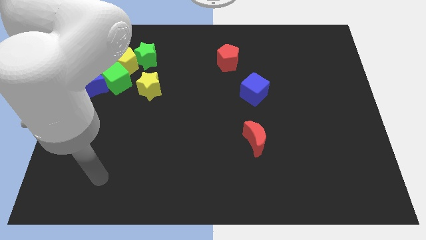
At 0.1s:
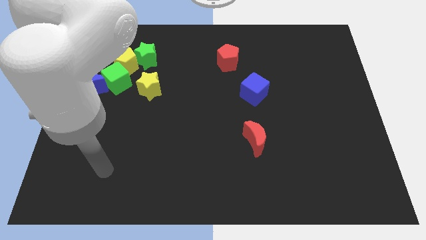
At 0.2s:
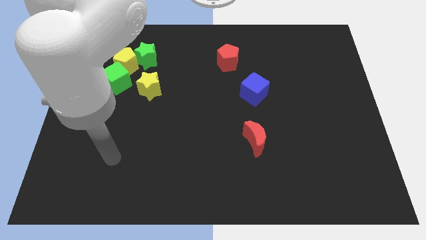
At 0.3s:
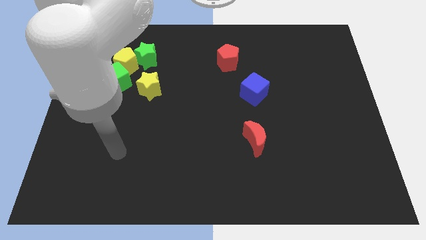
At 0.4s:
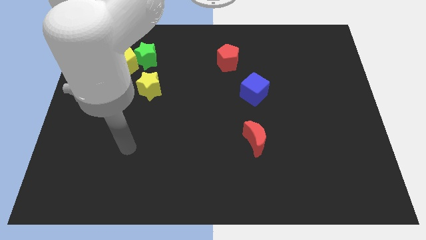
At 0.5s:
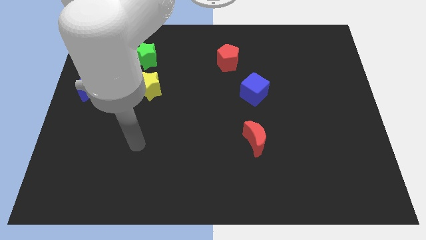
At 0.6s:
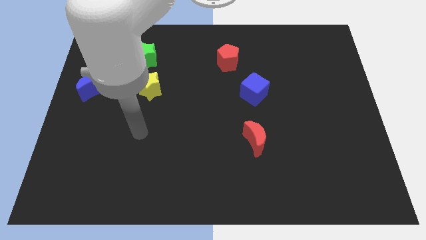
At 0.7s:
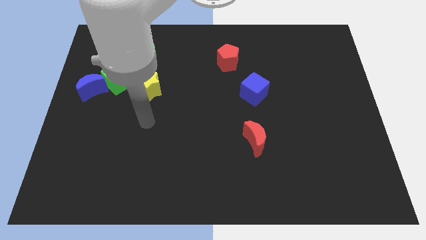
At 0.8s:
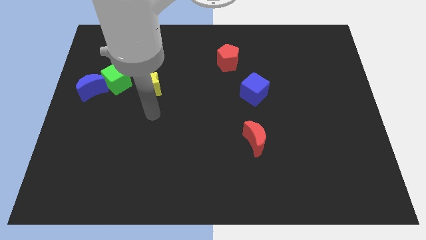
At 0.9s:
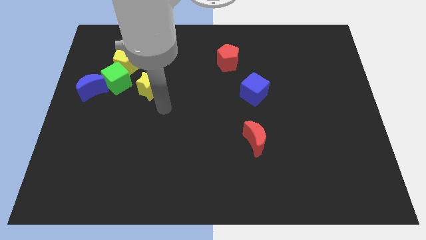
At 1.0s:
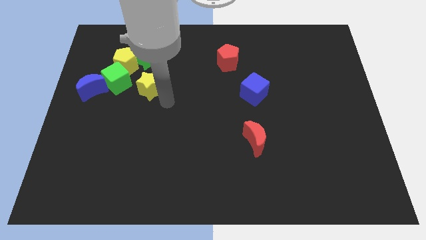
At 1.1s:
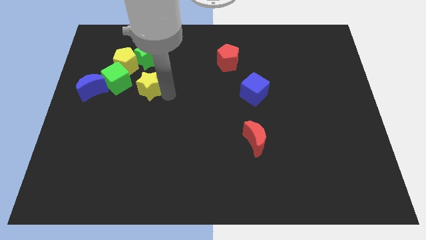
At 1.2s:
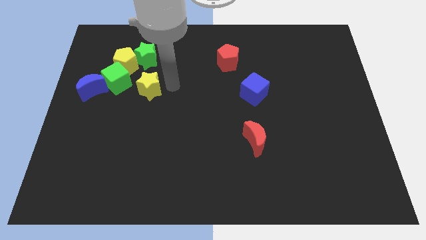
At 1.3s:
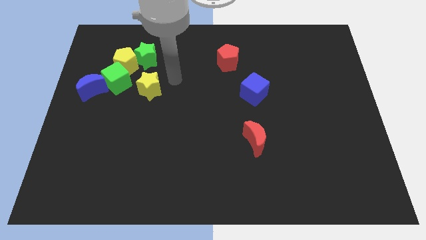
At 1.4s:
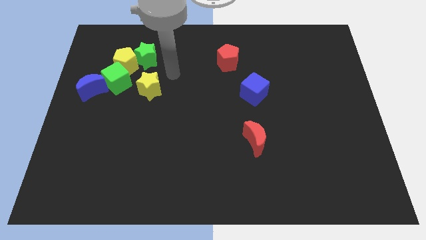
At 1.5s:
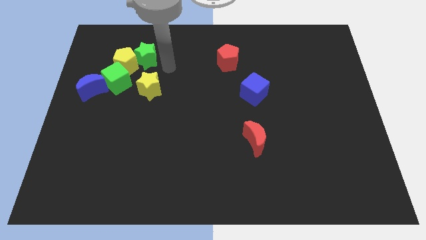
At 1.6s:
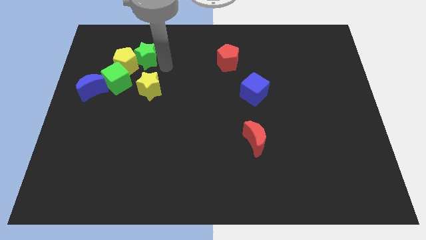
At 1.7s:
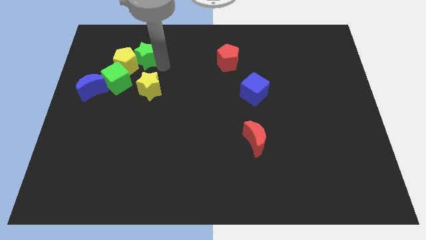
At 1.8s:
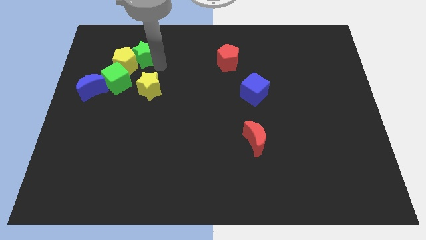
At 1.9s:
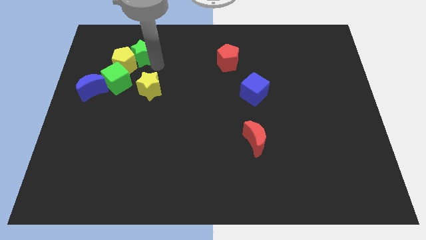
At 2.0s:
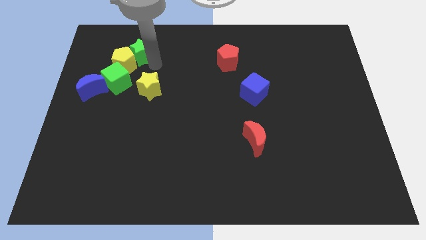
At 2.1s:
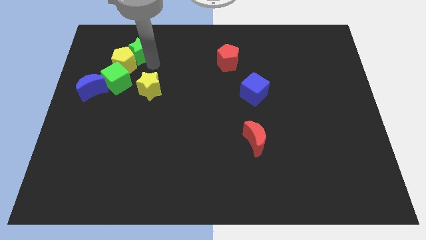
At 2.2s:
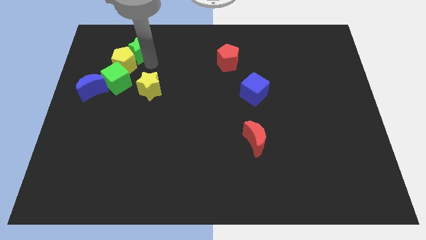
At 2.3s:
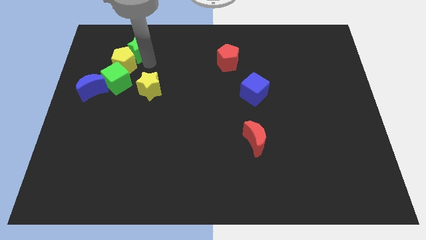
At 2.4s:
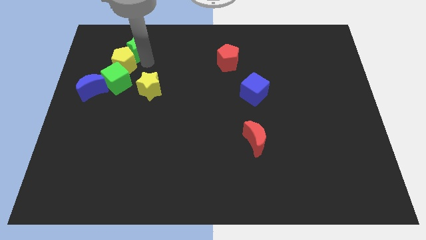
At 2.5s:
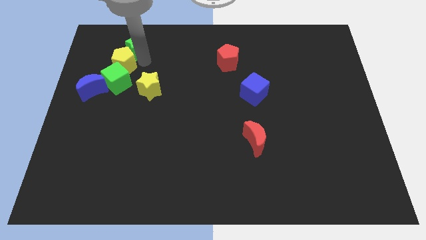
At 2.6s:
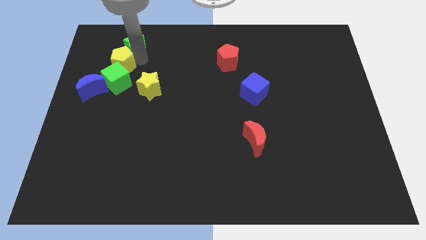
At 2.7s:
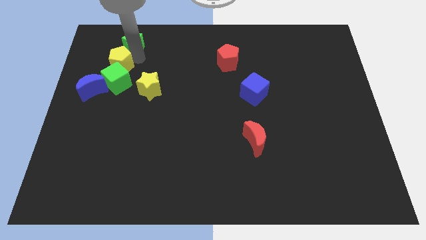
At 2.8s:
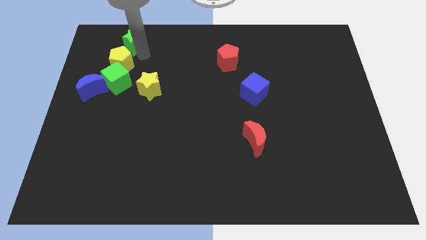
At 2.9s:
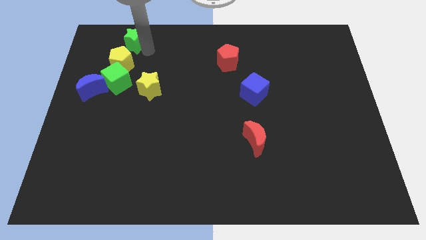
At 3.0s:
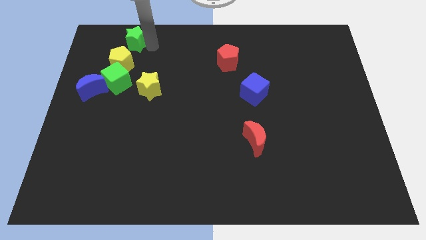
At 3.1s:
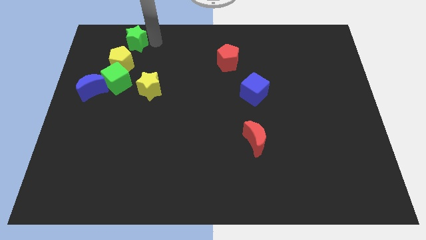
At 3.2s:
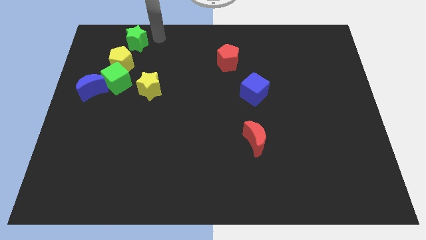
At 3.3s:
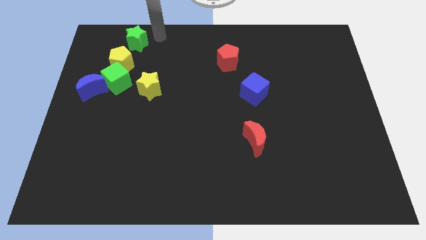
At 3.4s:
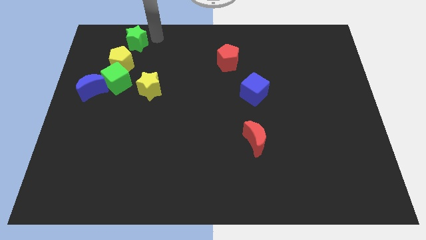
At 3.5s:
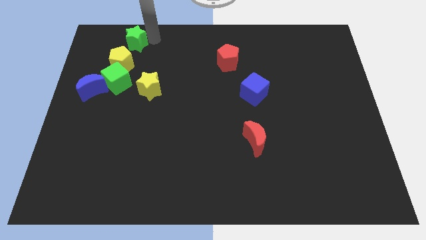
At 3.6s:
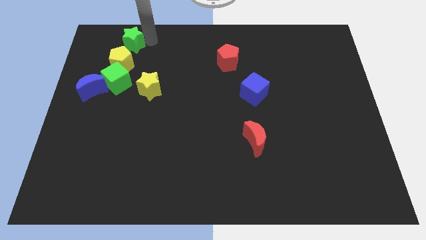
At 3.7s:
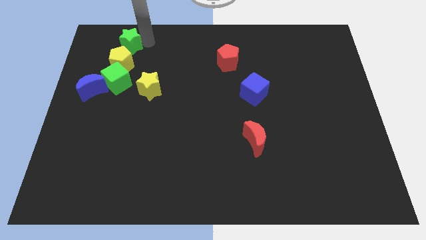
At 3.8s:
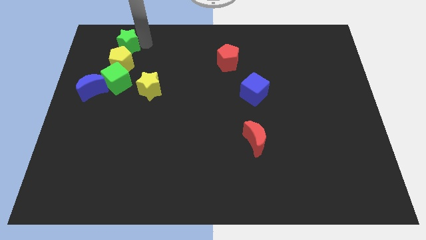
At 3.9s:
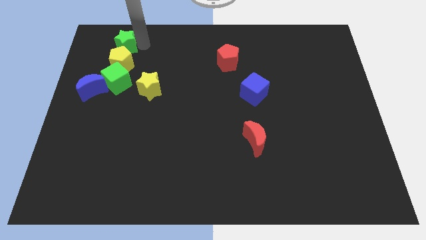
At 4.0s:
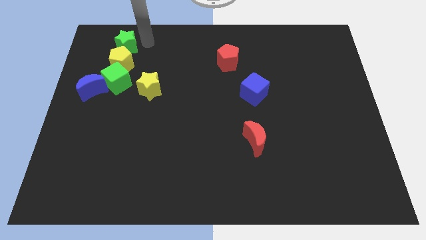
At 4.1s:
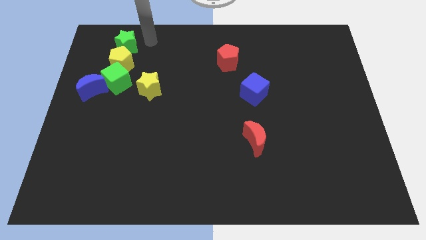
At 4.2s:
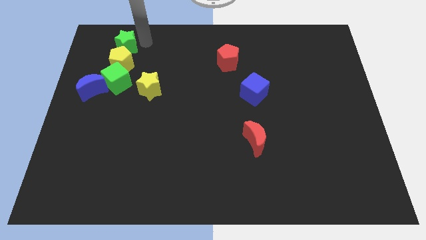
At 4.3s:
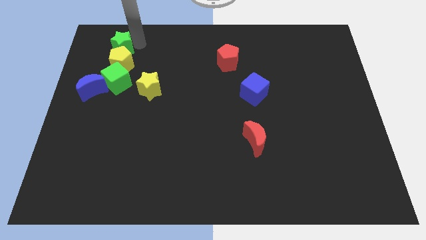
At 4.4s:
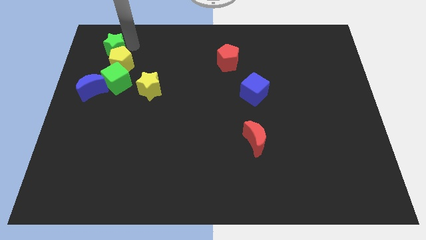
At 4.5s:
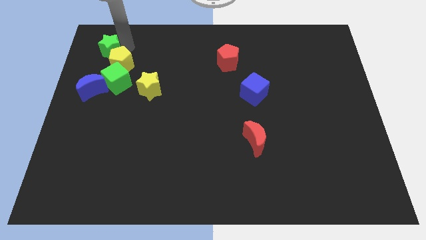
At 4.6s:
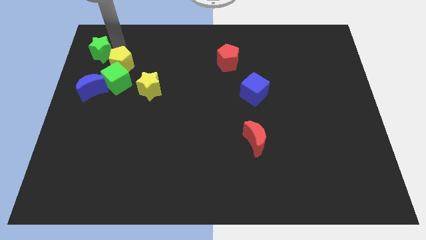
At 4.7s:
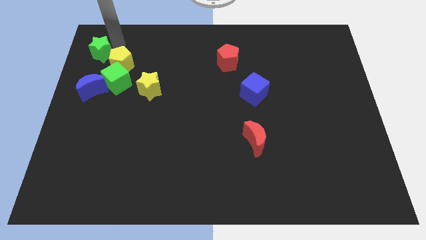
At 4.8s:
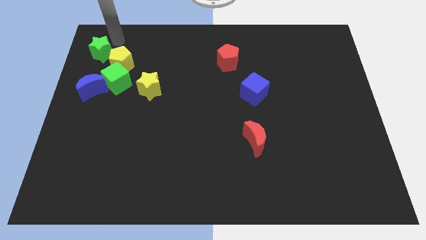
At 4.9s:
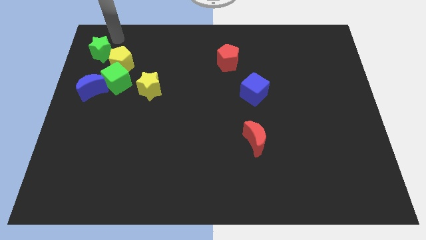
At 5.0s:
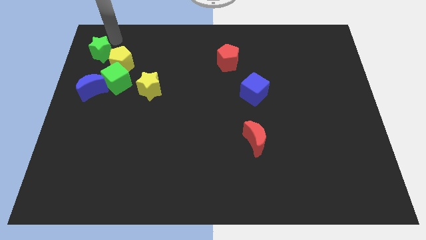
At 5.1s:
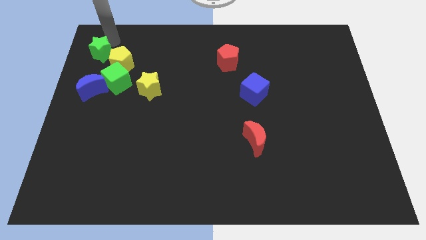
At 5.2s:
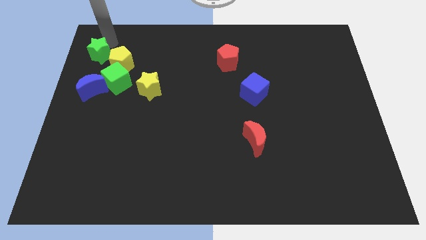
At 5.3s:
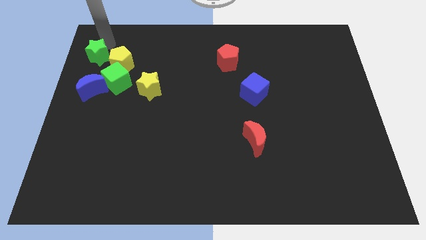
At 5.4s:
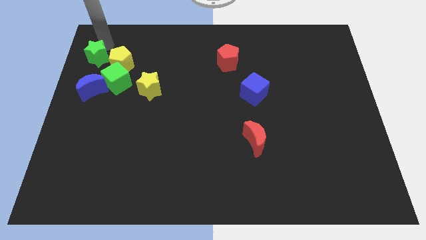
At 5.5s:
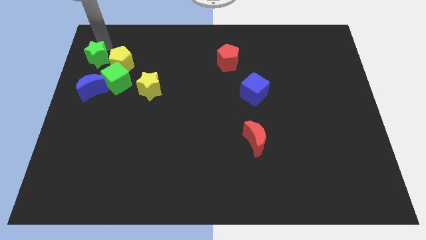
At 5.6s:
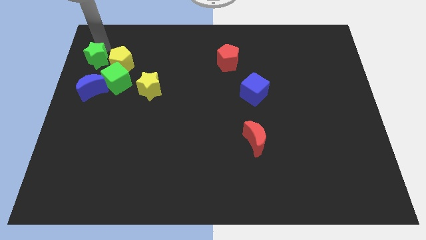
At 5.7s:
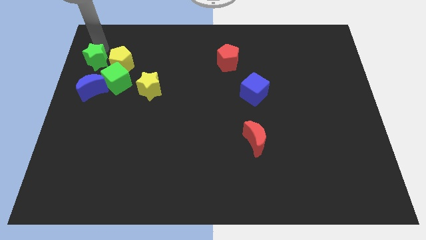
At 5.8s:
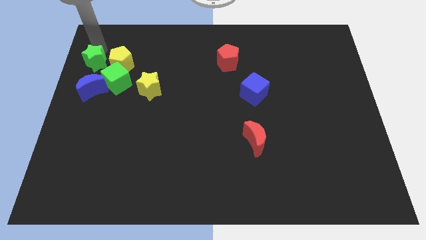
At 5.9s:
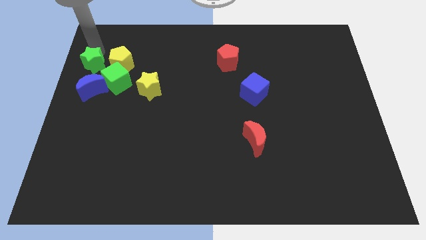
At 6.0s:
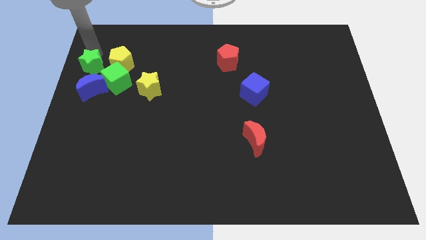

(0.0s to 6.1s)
push the green star to the left side of the board
